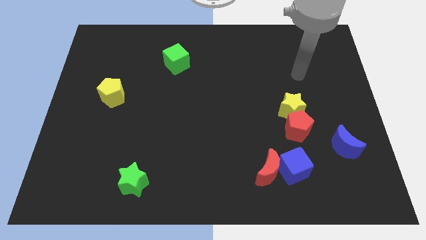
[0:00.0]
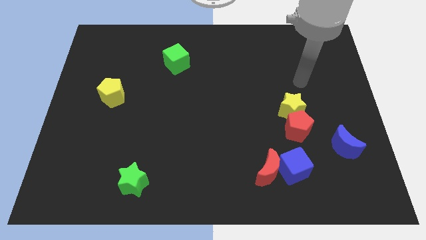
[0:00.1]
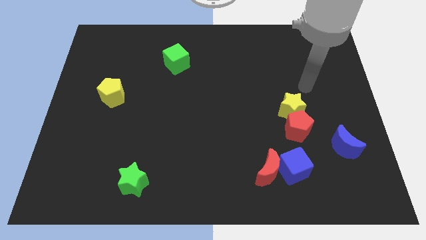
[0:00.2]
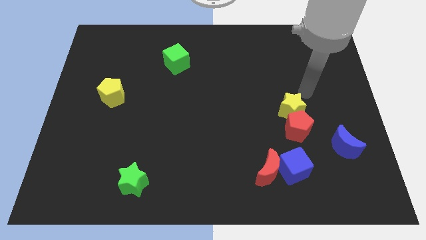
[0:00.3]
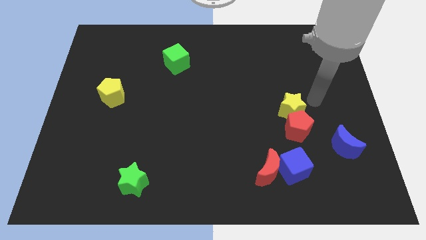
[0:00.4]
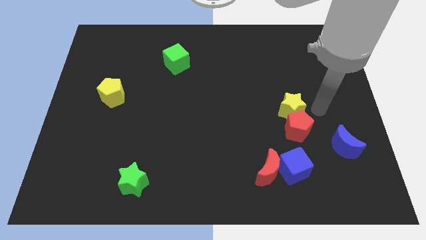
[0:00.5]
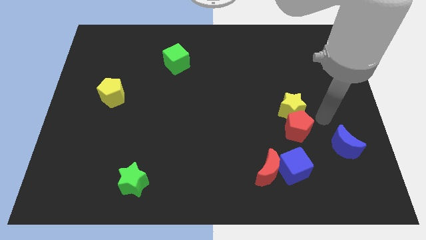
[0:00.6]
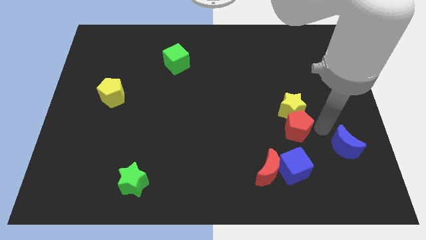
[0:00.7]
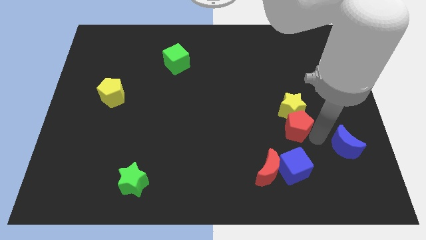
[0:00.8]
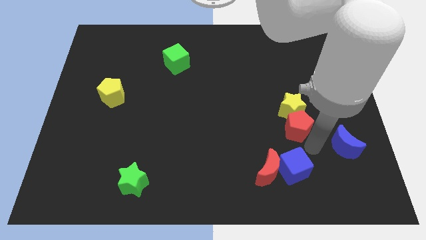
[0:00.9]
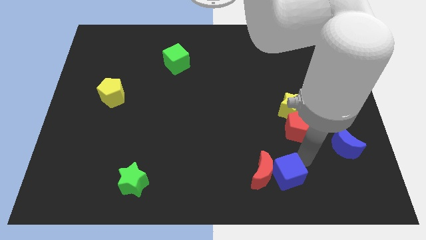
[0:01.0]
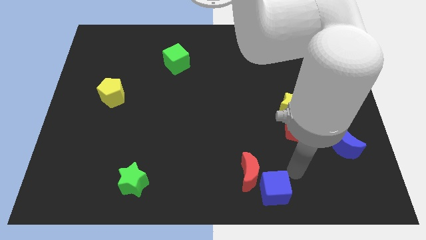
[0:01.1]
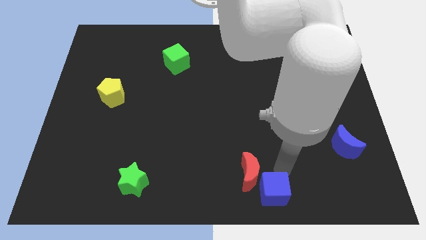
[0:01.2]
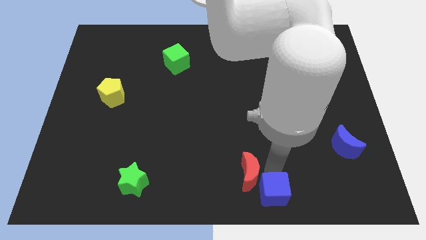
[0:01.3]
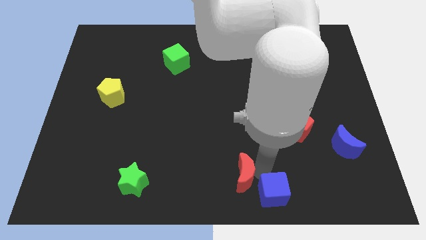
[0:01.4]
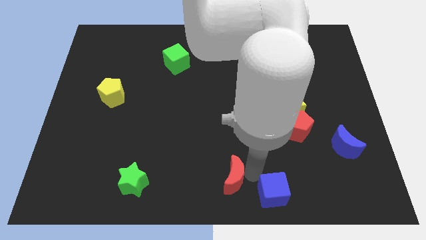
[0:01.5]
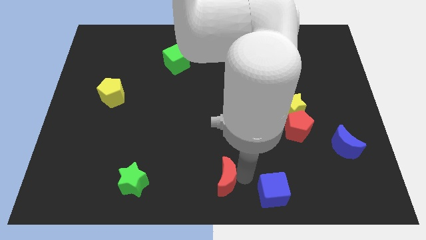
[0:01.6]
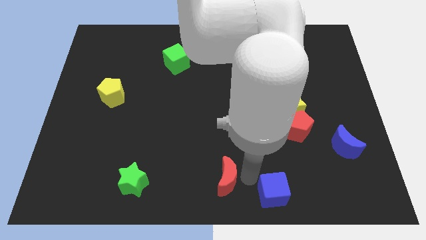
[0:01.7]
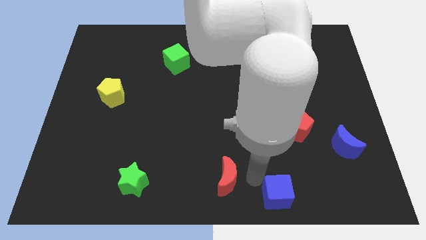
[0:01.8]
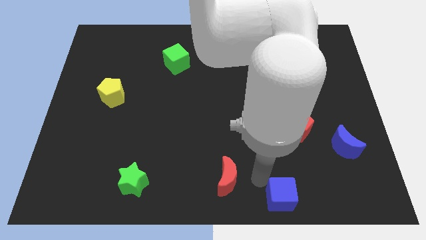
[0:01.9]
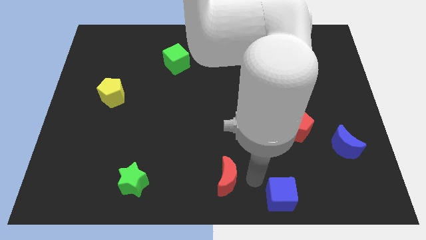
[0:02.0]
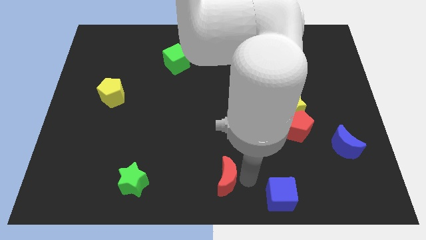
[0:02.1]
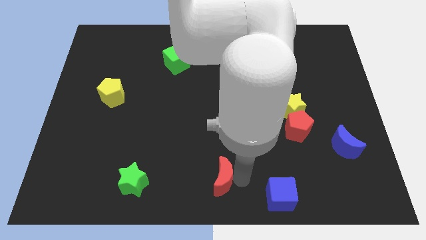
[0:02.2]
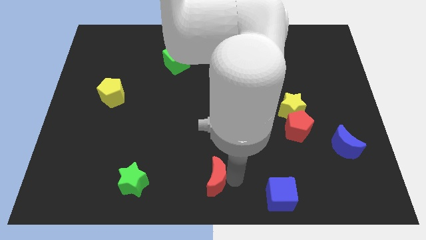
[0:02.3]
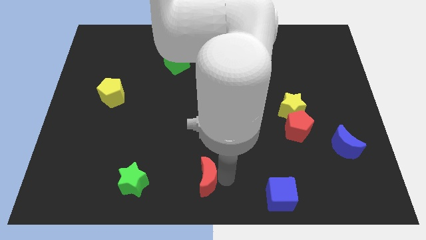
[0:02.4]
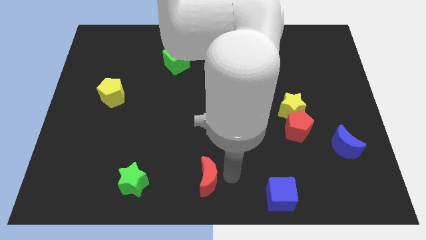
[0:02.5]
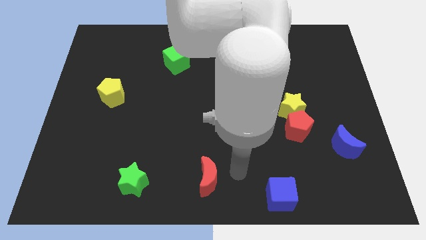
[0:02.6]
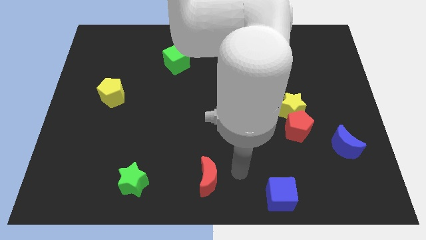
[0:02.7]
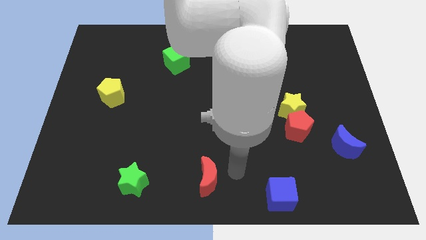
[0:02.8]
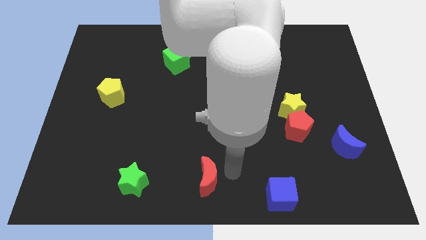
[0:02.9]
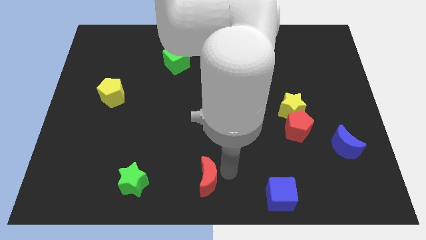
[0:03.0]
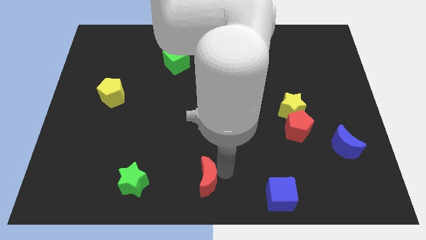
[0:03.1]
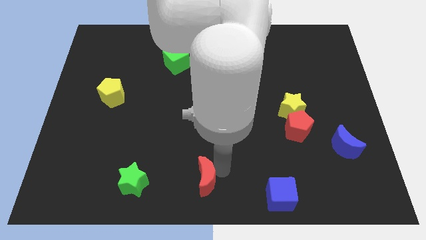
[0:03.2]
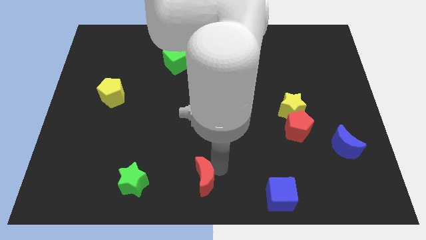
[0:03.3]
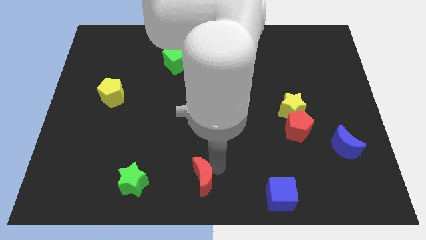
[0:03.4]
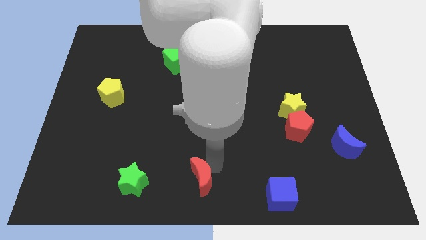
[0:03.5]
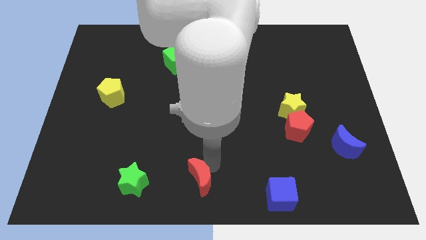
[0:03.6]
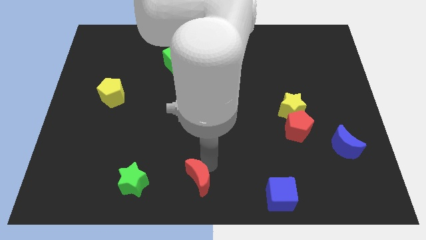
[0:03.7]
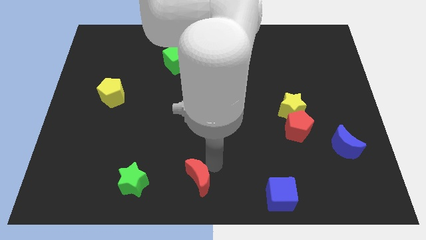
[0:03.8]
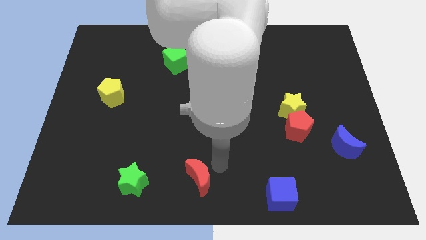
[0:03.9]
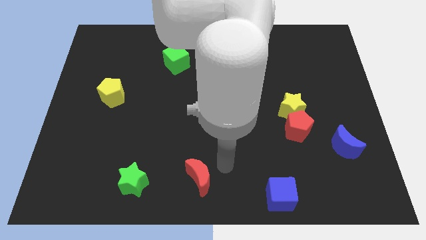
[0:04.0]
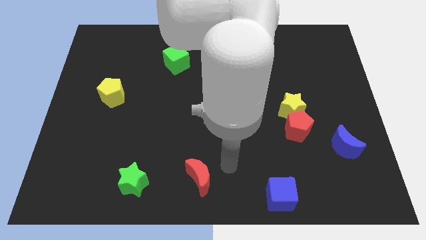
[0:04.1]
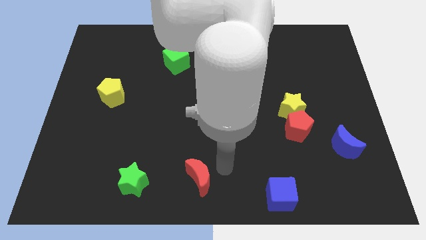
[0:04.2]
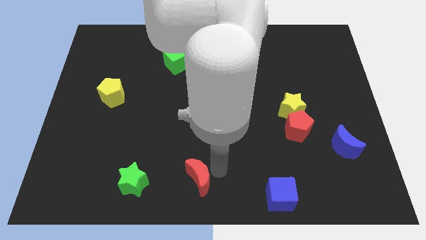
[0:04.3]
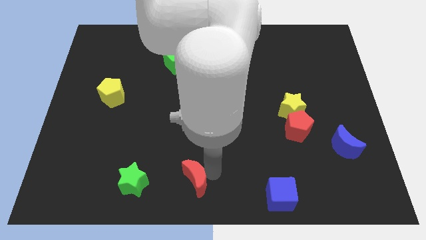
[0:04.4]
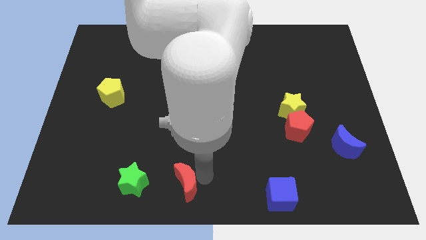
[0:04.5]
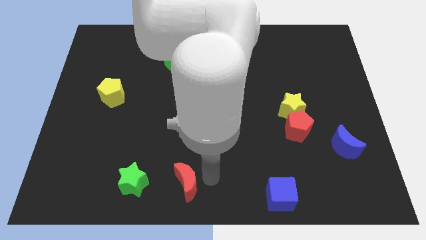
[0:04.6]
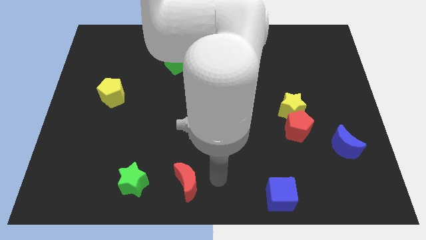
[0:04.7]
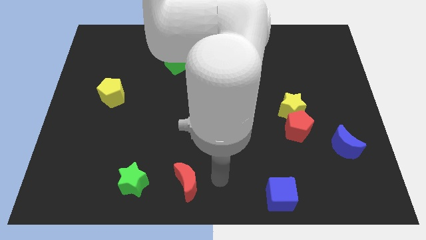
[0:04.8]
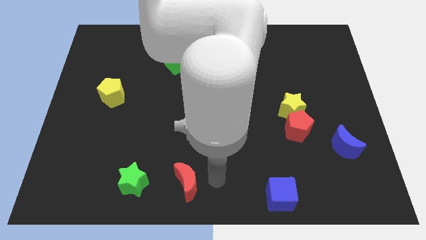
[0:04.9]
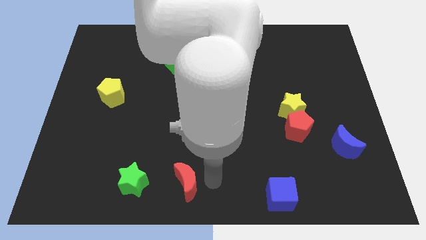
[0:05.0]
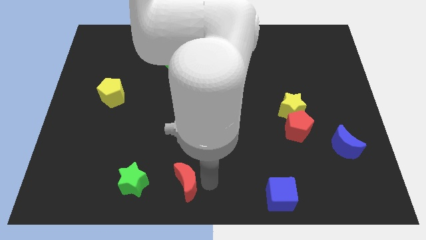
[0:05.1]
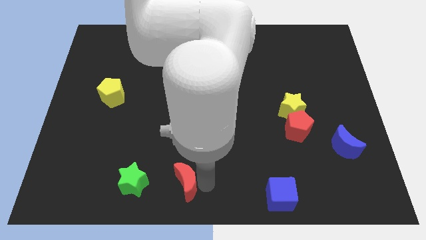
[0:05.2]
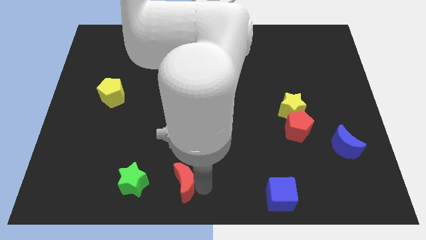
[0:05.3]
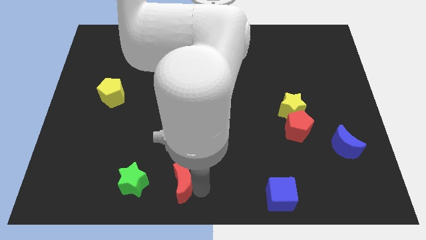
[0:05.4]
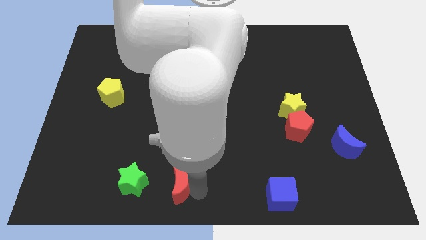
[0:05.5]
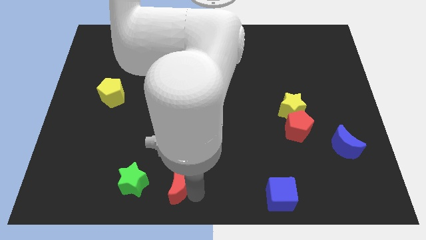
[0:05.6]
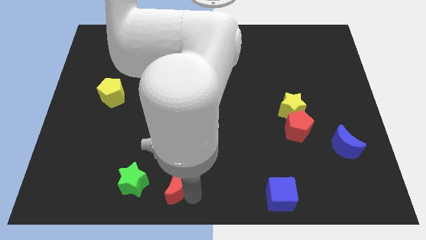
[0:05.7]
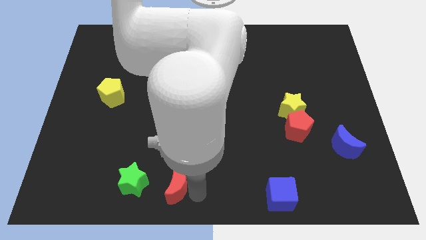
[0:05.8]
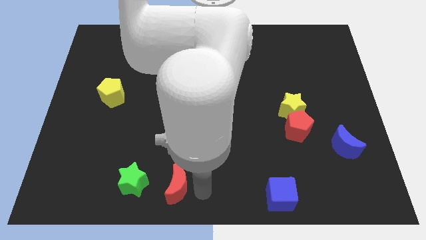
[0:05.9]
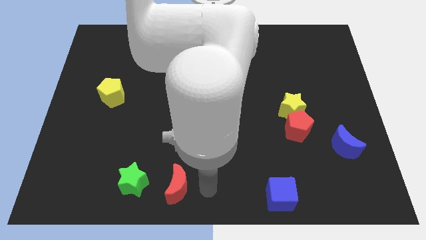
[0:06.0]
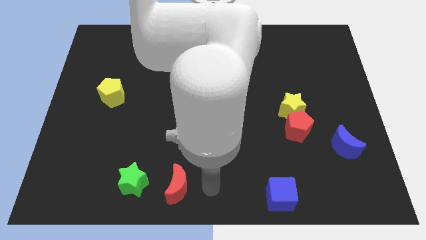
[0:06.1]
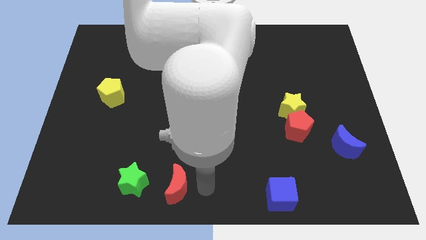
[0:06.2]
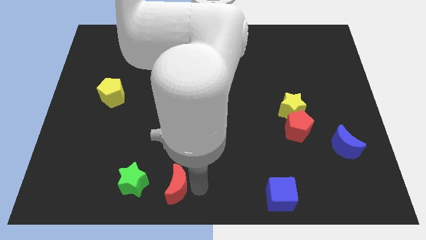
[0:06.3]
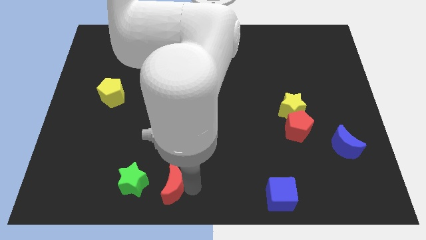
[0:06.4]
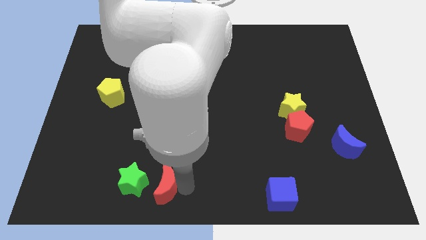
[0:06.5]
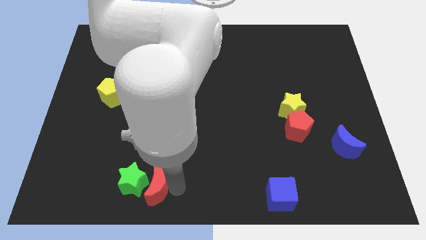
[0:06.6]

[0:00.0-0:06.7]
move the red moon towards the green star
